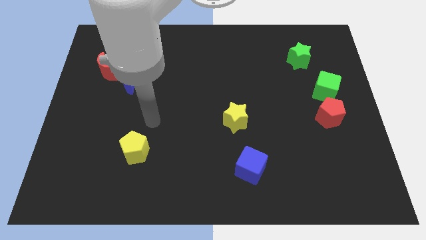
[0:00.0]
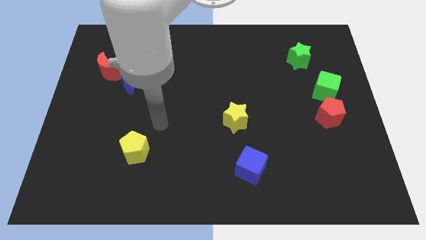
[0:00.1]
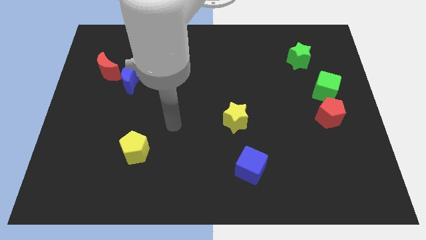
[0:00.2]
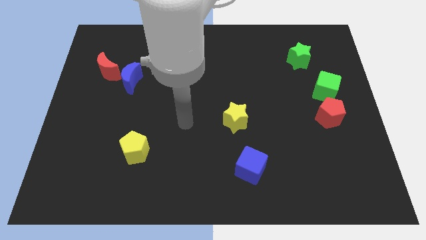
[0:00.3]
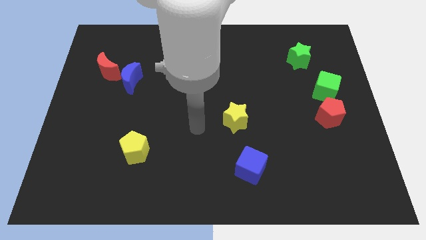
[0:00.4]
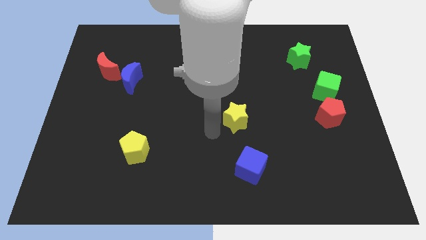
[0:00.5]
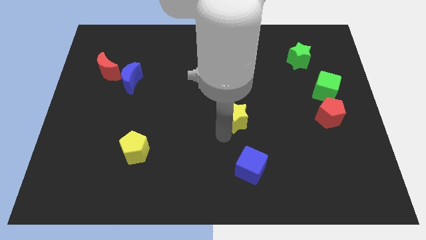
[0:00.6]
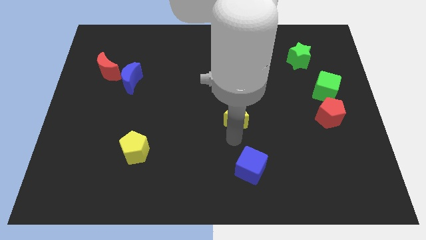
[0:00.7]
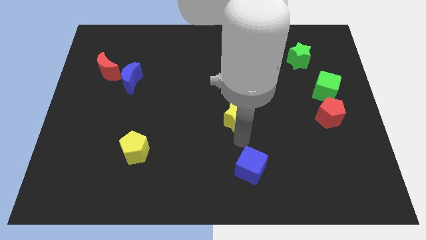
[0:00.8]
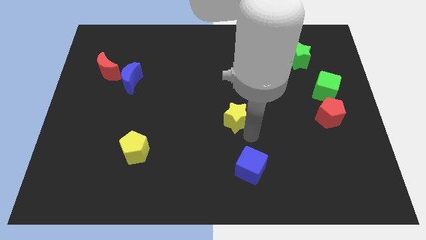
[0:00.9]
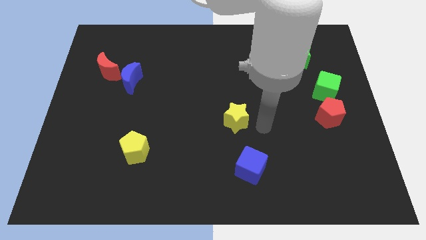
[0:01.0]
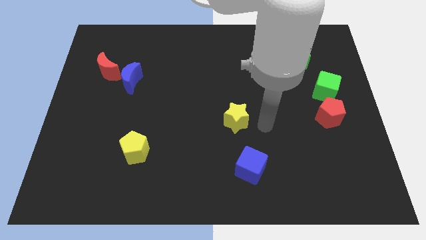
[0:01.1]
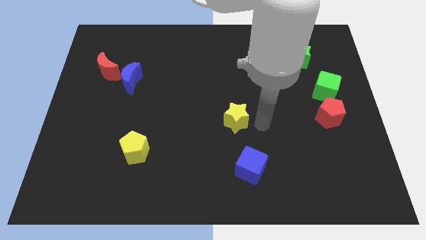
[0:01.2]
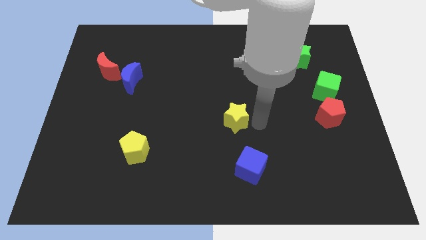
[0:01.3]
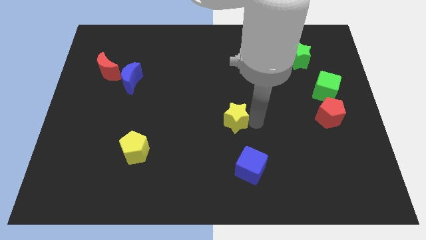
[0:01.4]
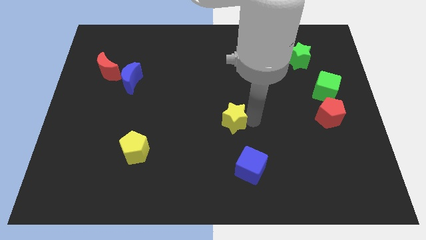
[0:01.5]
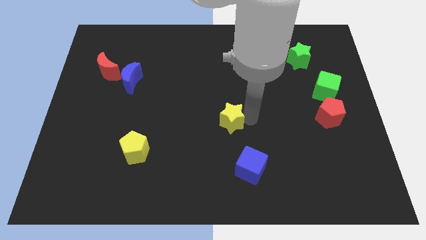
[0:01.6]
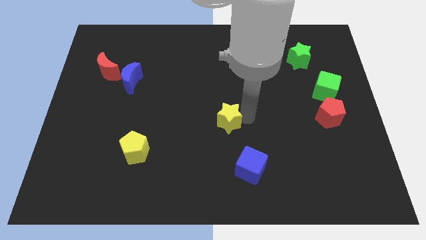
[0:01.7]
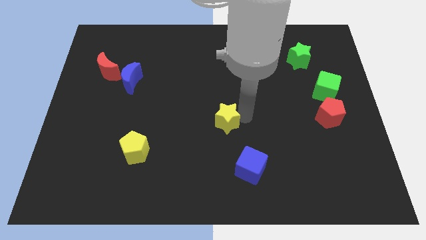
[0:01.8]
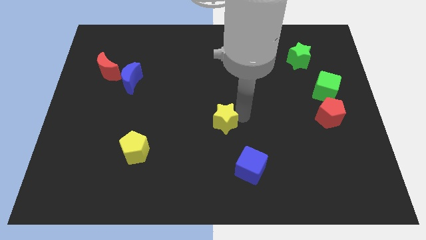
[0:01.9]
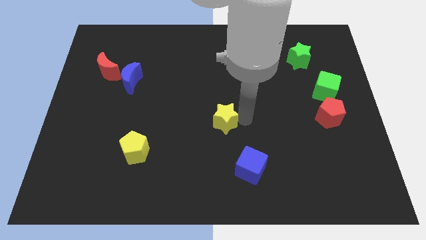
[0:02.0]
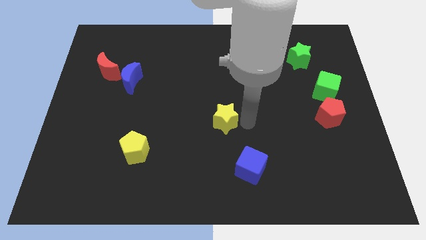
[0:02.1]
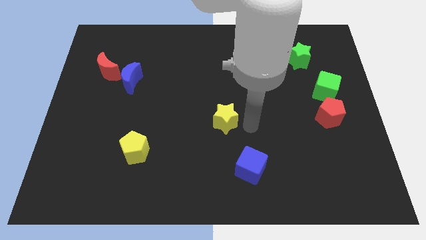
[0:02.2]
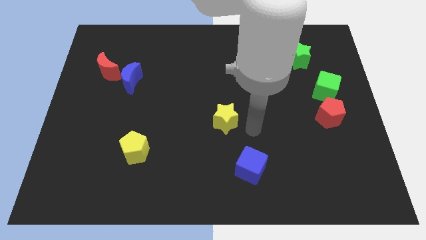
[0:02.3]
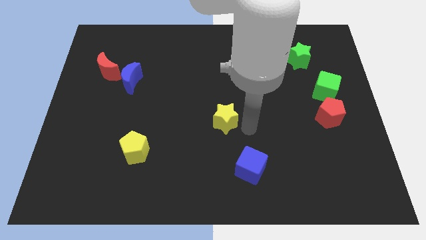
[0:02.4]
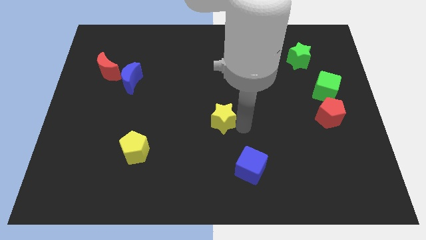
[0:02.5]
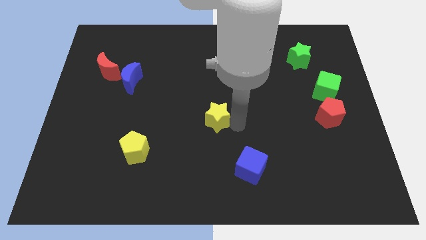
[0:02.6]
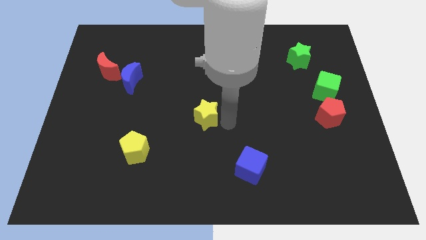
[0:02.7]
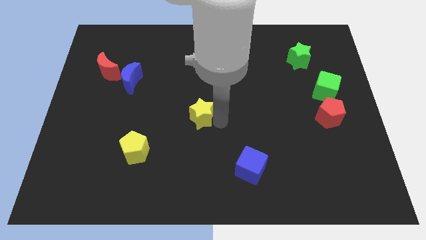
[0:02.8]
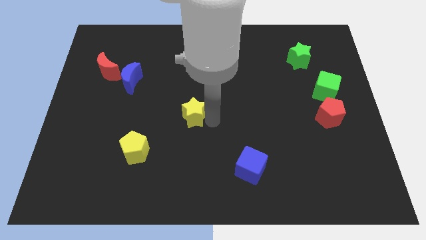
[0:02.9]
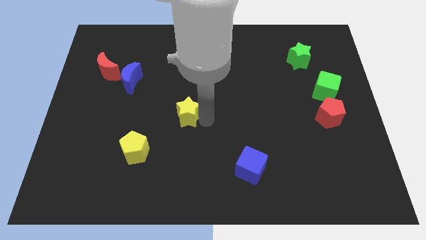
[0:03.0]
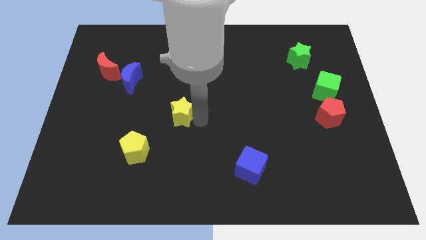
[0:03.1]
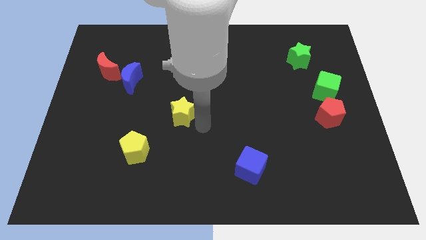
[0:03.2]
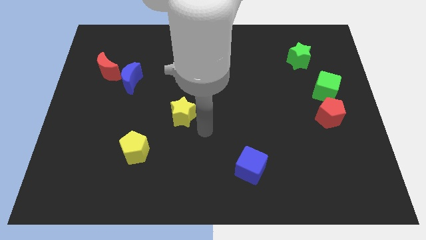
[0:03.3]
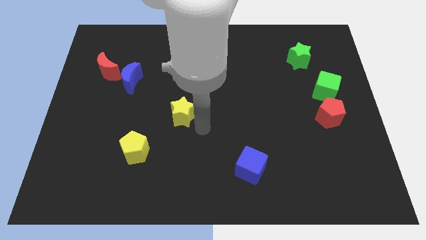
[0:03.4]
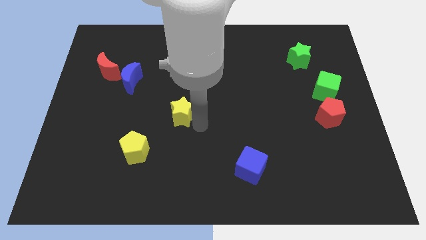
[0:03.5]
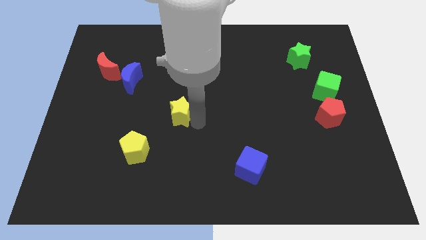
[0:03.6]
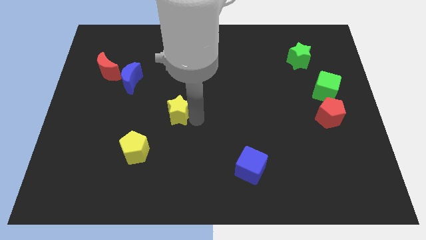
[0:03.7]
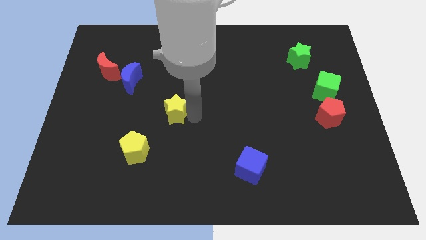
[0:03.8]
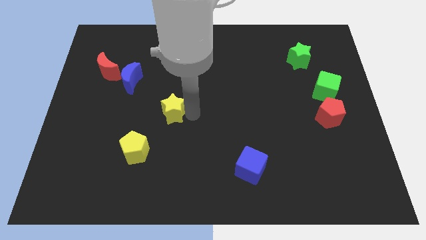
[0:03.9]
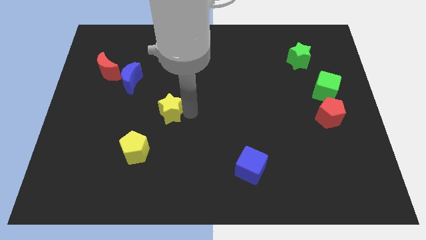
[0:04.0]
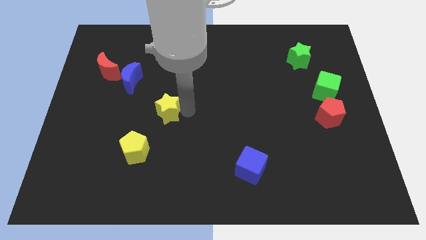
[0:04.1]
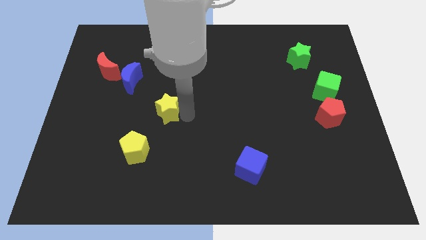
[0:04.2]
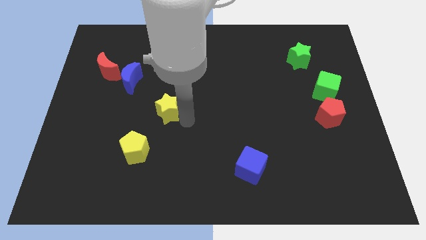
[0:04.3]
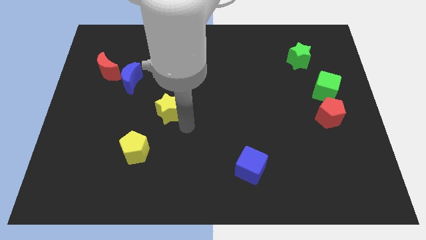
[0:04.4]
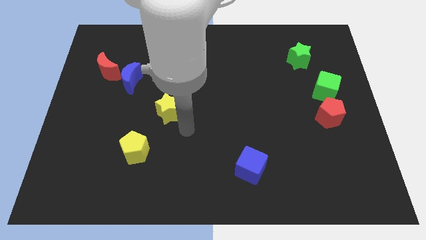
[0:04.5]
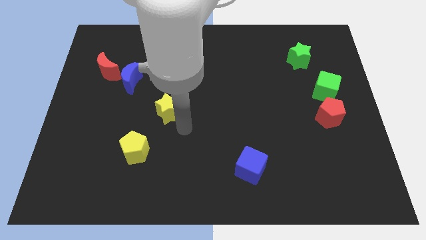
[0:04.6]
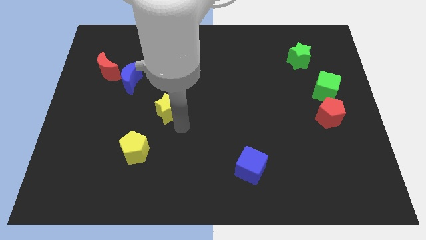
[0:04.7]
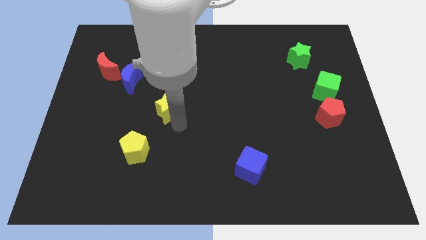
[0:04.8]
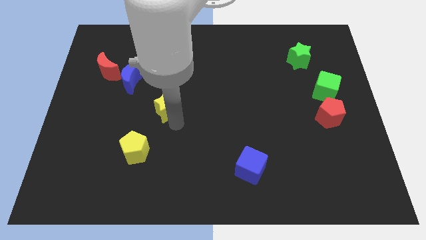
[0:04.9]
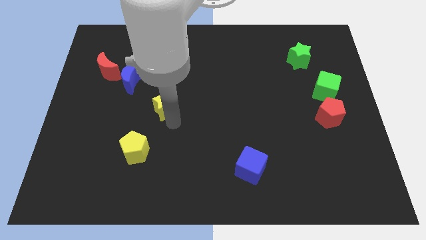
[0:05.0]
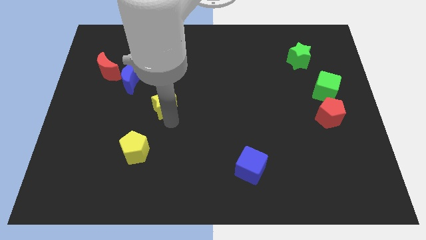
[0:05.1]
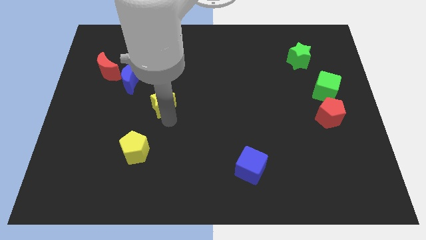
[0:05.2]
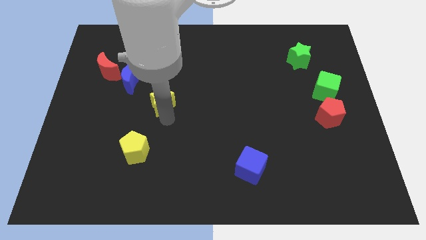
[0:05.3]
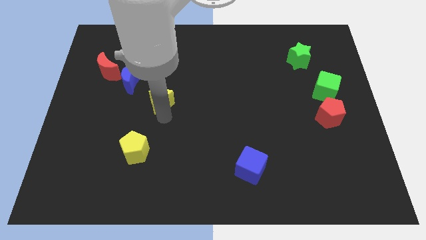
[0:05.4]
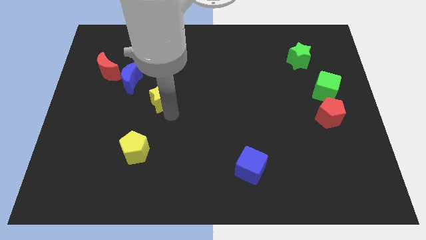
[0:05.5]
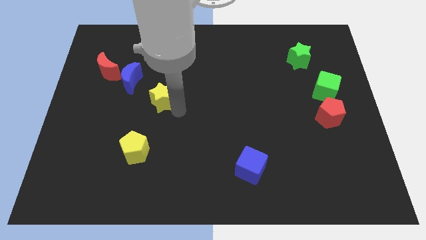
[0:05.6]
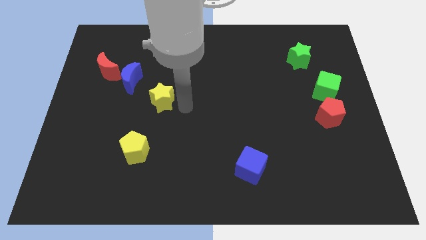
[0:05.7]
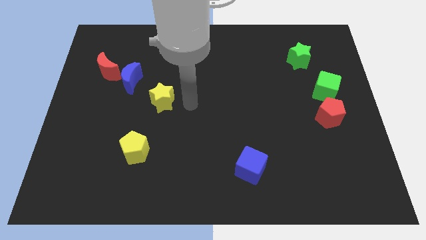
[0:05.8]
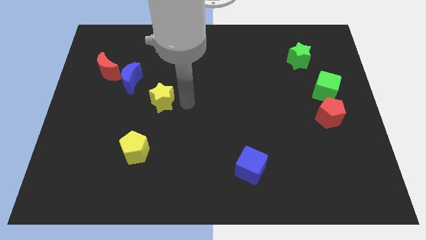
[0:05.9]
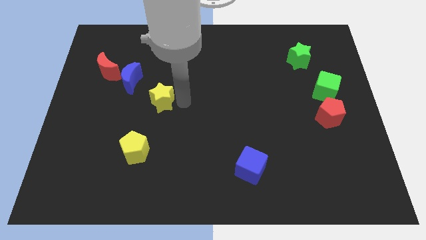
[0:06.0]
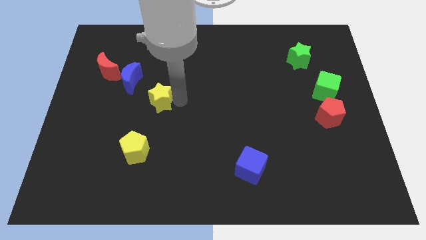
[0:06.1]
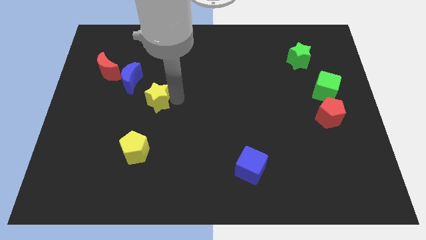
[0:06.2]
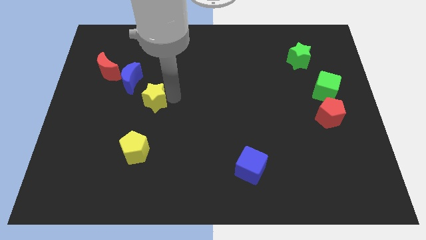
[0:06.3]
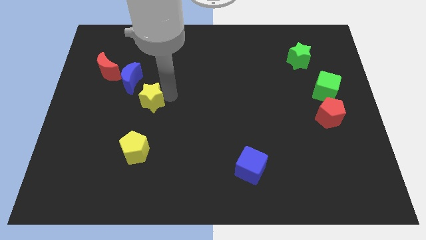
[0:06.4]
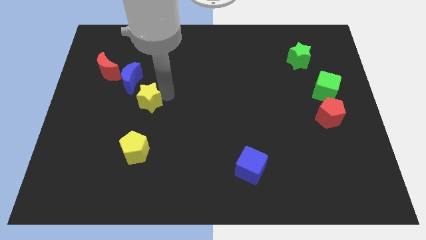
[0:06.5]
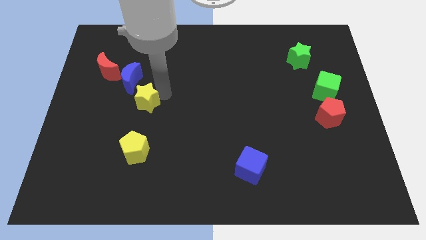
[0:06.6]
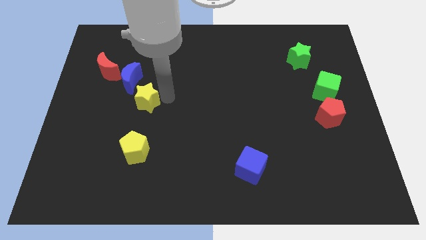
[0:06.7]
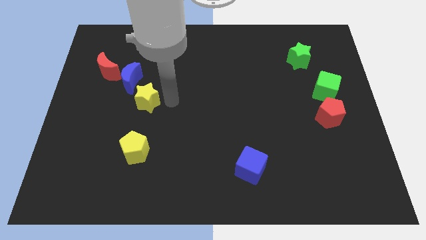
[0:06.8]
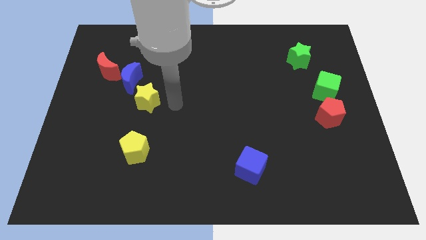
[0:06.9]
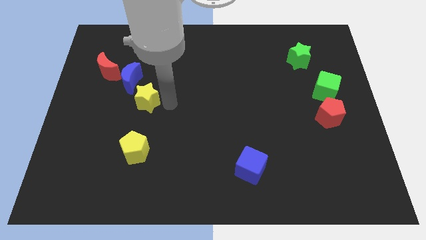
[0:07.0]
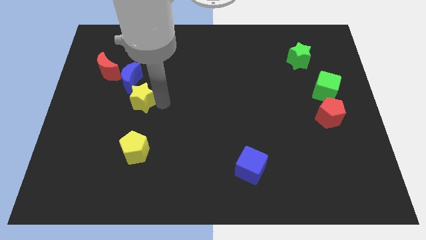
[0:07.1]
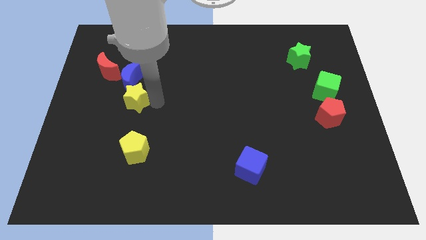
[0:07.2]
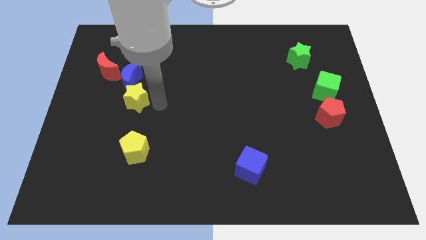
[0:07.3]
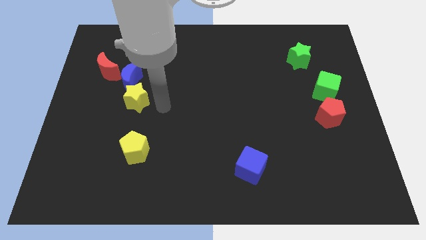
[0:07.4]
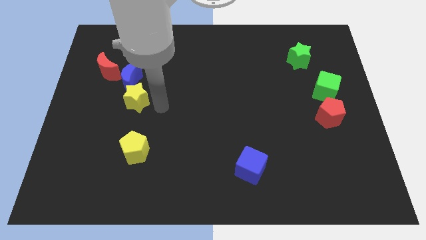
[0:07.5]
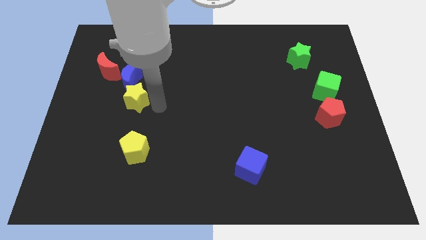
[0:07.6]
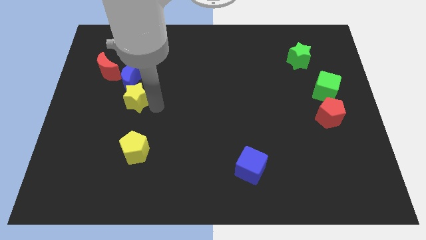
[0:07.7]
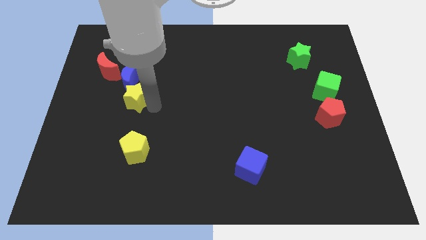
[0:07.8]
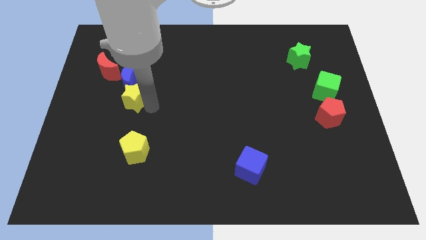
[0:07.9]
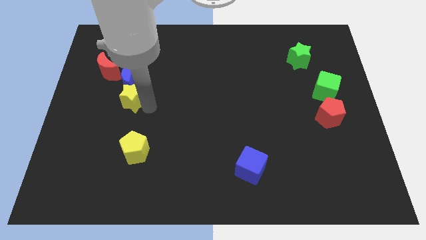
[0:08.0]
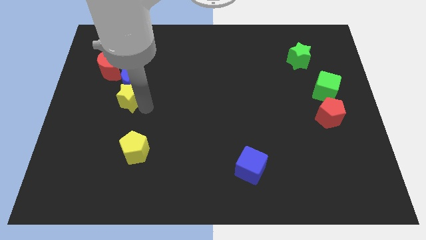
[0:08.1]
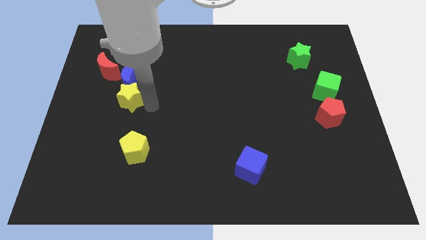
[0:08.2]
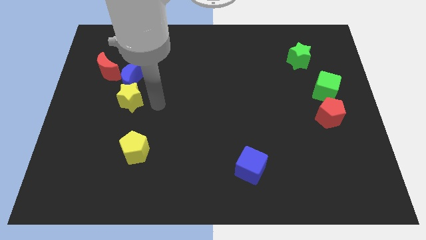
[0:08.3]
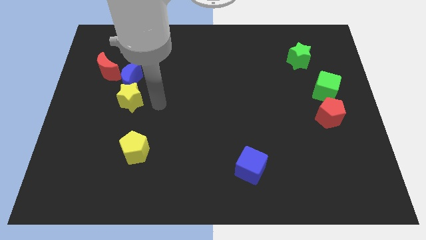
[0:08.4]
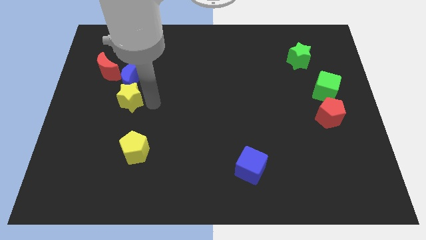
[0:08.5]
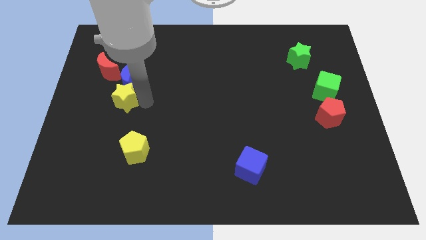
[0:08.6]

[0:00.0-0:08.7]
push the yellow star to the bottom left of the blue moon
